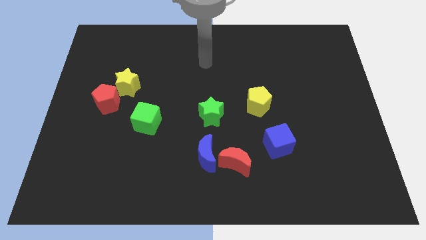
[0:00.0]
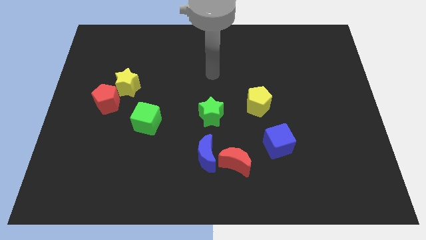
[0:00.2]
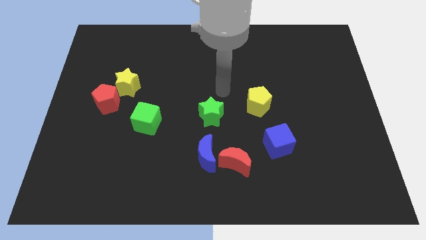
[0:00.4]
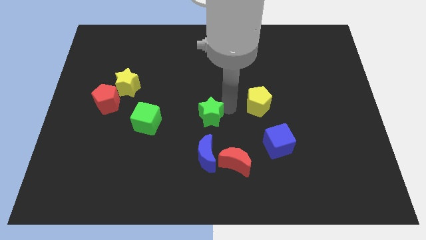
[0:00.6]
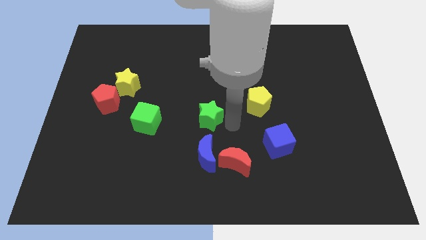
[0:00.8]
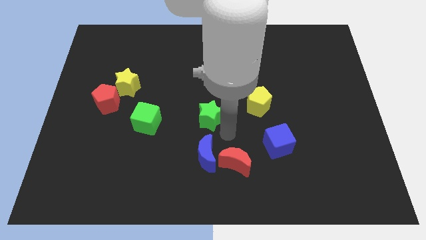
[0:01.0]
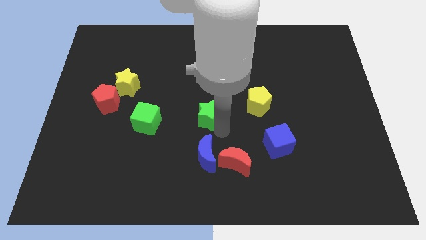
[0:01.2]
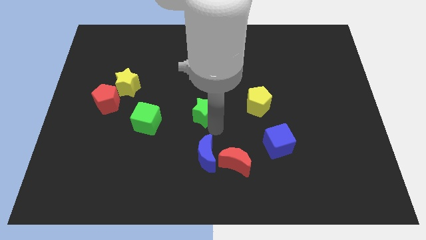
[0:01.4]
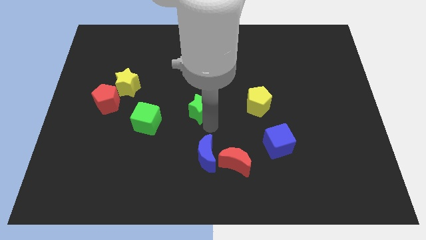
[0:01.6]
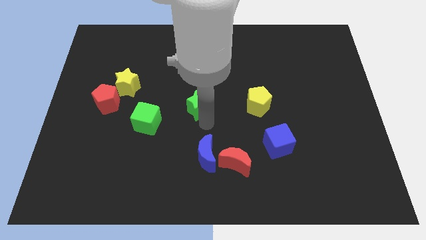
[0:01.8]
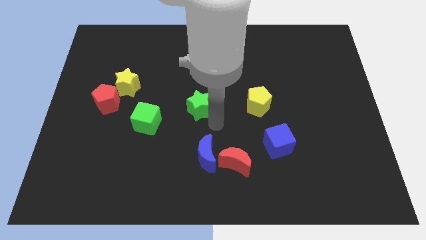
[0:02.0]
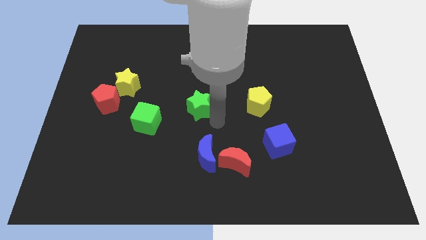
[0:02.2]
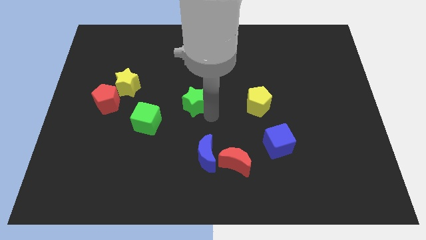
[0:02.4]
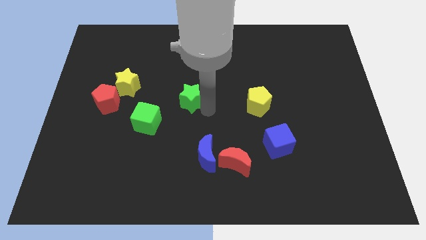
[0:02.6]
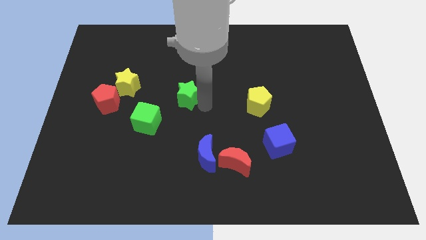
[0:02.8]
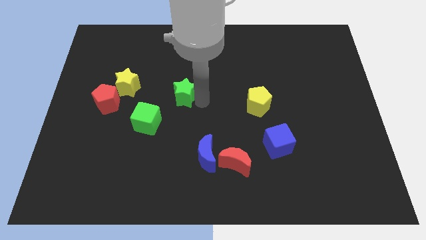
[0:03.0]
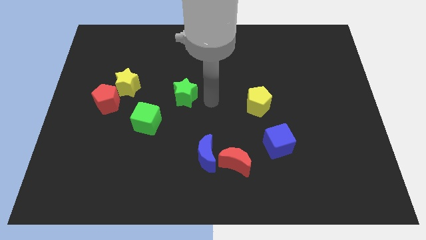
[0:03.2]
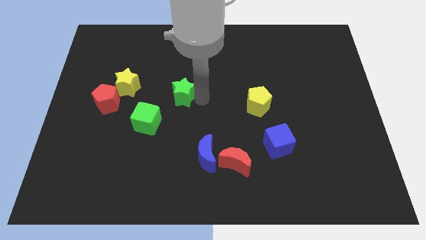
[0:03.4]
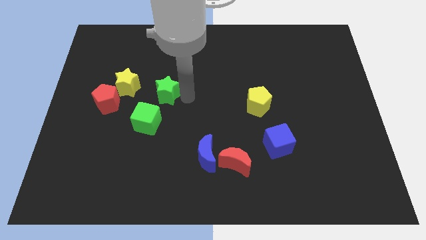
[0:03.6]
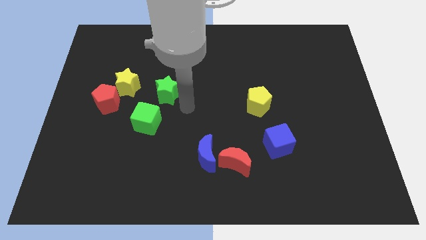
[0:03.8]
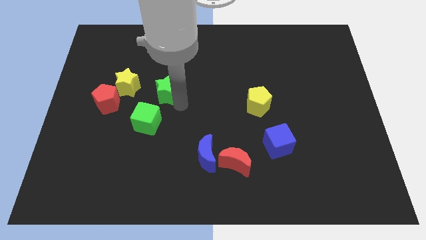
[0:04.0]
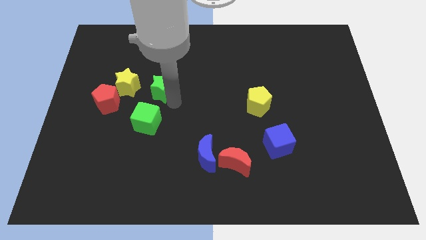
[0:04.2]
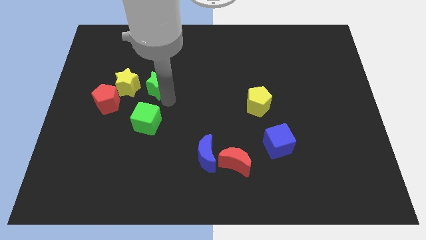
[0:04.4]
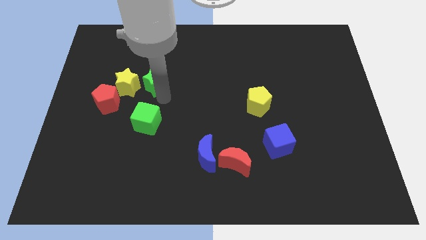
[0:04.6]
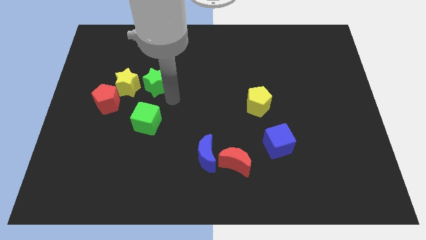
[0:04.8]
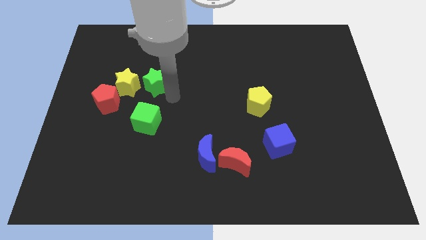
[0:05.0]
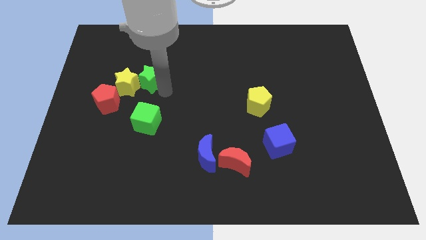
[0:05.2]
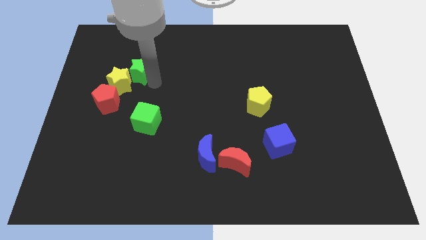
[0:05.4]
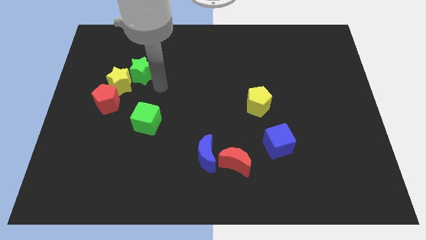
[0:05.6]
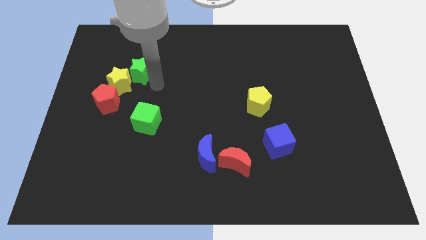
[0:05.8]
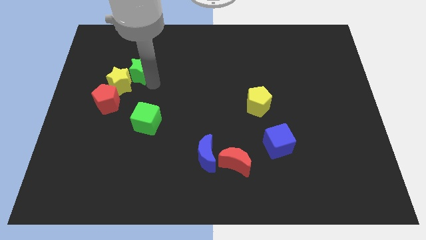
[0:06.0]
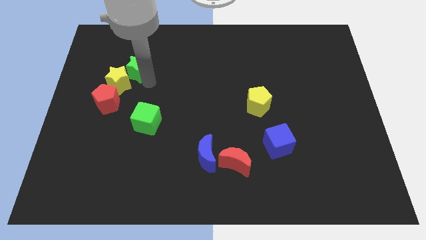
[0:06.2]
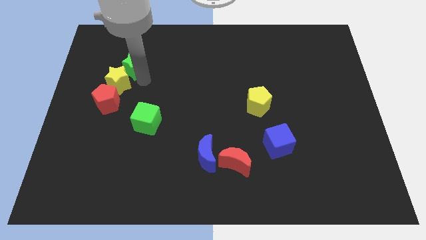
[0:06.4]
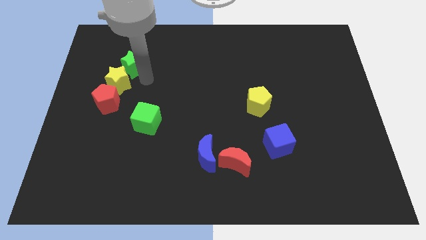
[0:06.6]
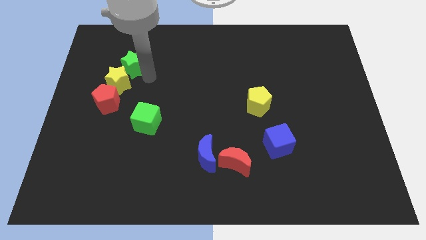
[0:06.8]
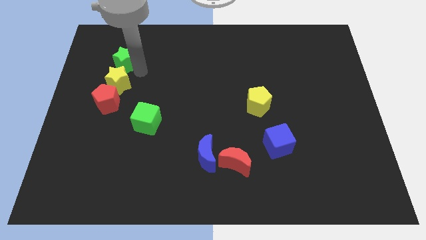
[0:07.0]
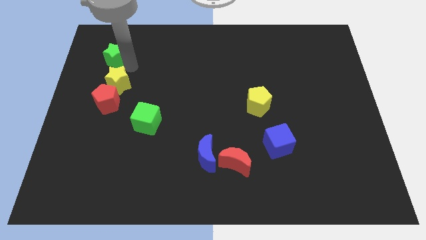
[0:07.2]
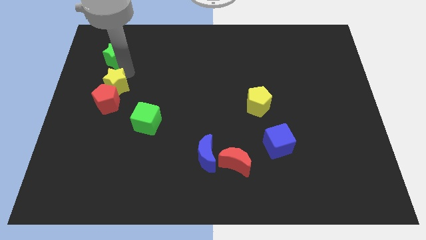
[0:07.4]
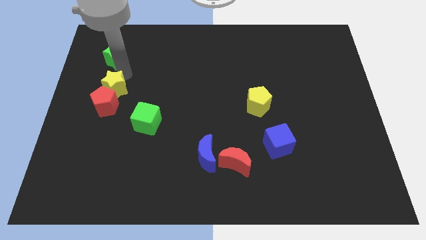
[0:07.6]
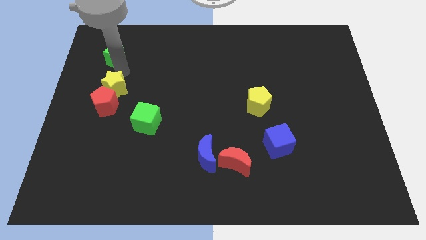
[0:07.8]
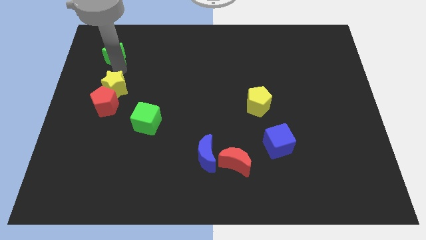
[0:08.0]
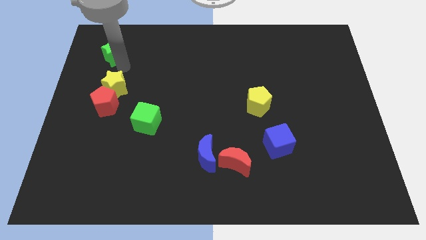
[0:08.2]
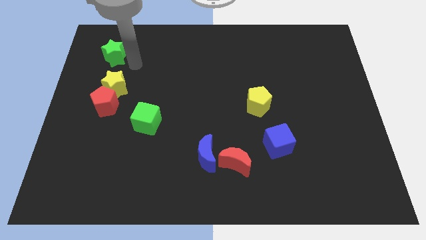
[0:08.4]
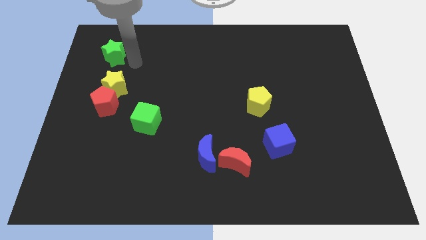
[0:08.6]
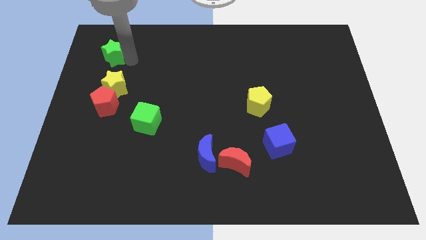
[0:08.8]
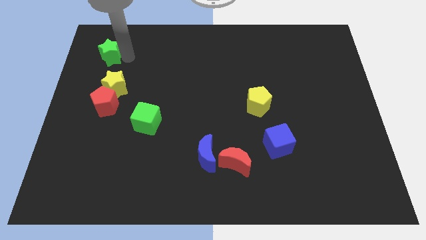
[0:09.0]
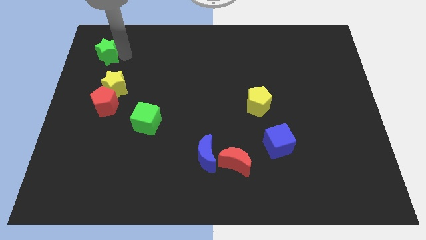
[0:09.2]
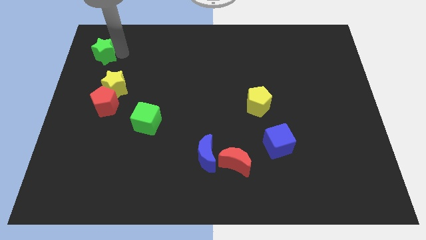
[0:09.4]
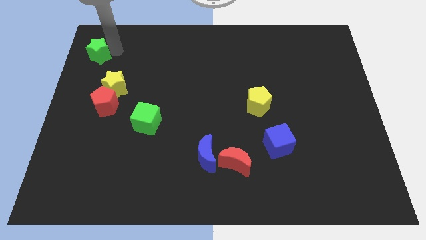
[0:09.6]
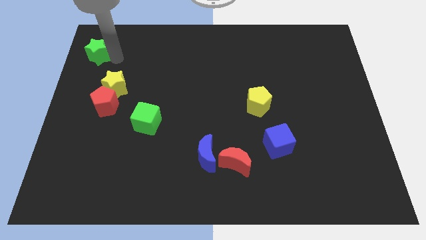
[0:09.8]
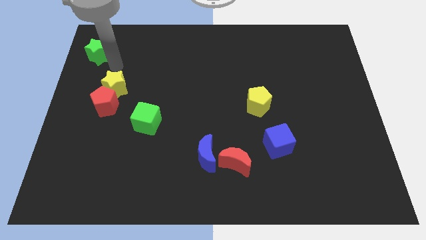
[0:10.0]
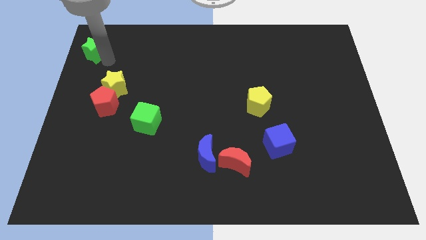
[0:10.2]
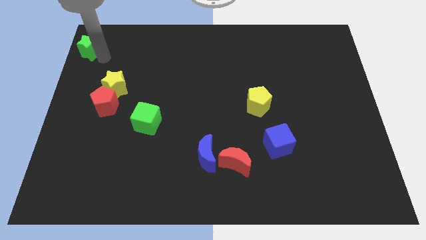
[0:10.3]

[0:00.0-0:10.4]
slide the green star to the top left corner
